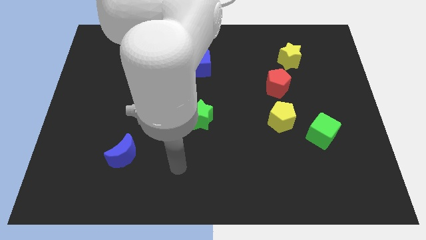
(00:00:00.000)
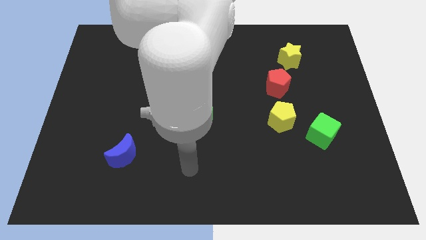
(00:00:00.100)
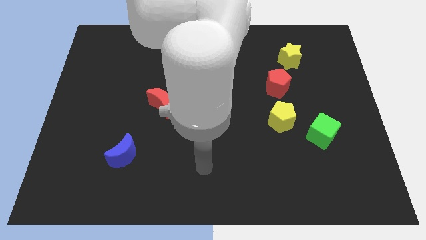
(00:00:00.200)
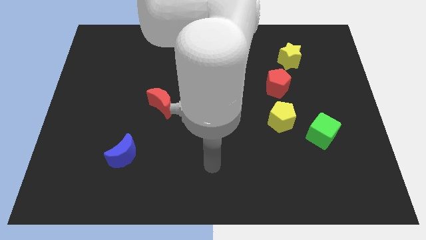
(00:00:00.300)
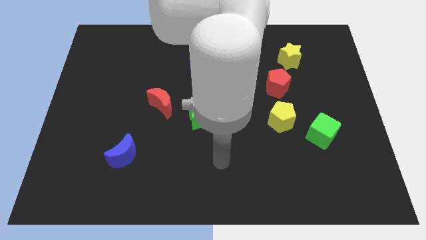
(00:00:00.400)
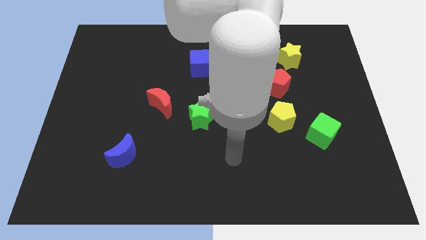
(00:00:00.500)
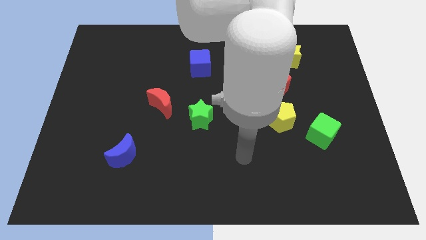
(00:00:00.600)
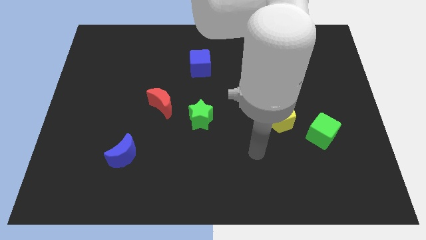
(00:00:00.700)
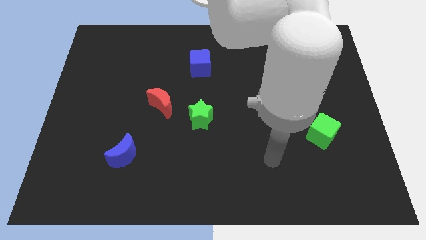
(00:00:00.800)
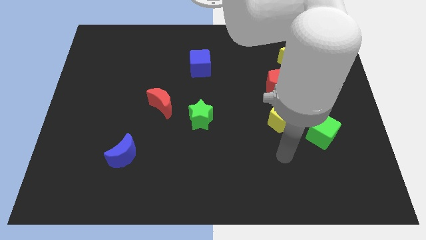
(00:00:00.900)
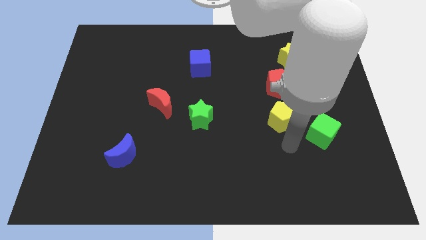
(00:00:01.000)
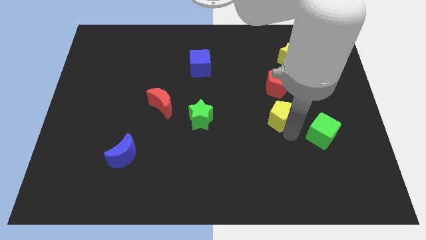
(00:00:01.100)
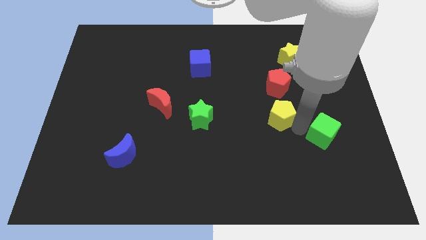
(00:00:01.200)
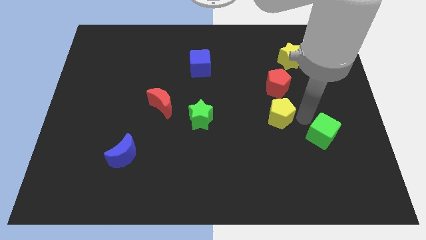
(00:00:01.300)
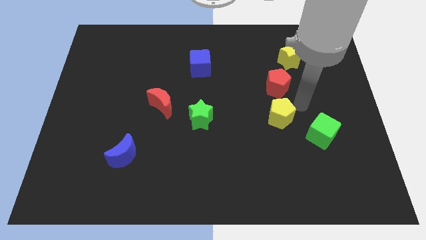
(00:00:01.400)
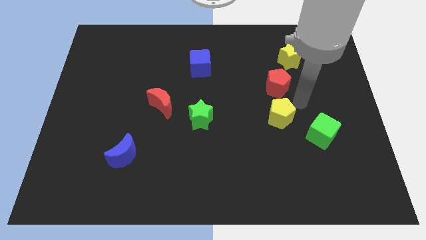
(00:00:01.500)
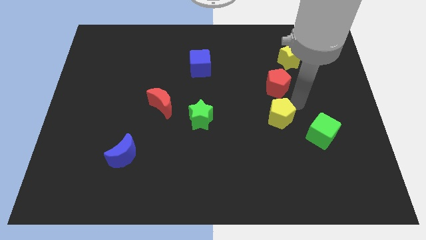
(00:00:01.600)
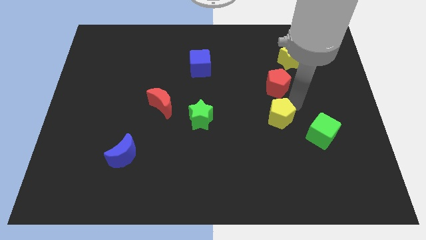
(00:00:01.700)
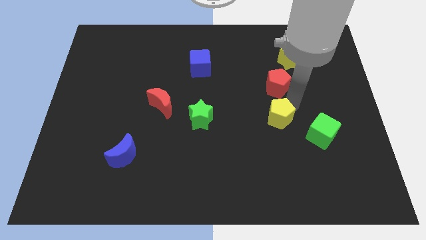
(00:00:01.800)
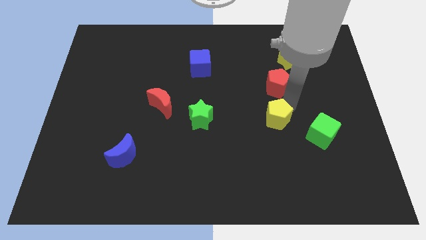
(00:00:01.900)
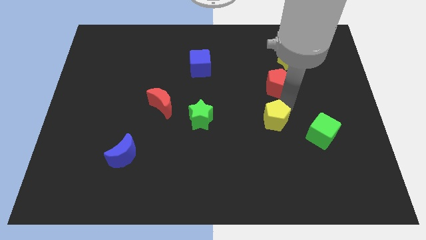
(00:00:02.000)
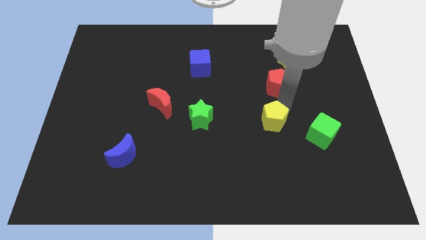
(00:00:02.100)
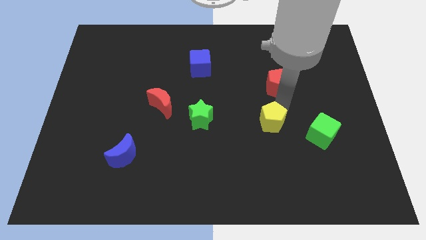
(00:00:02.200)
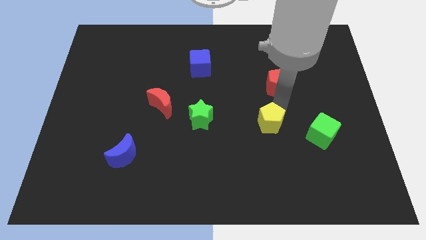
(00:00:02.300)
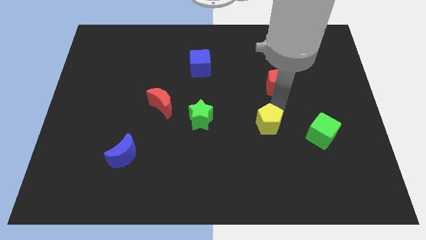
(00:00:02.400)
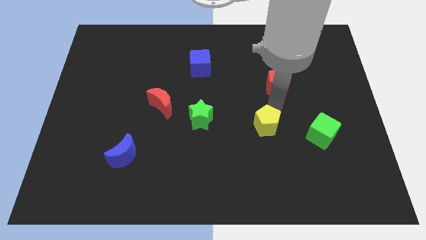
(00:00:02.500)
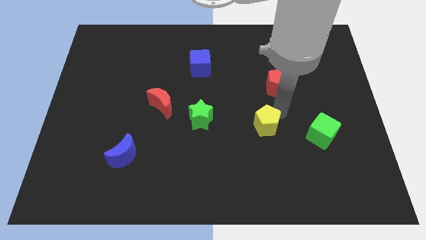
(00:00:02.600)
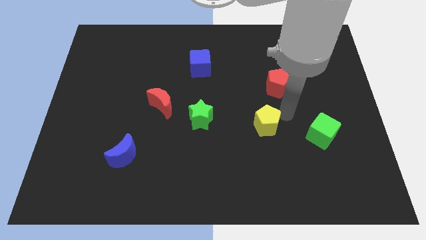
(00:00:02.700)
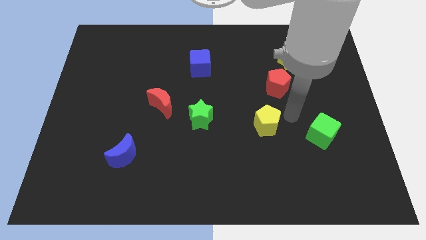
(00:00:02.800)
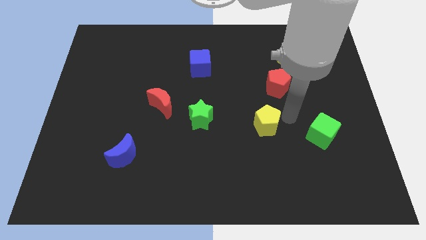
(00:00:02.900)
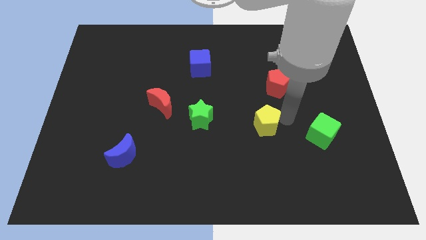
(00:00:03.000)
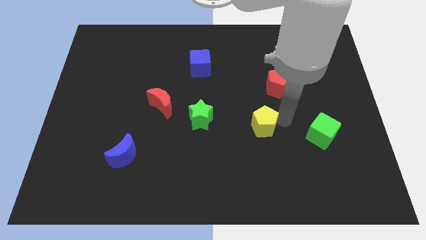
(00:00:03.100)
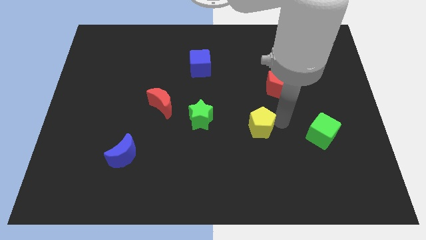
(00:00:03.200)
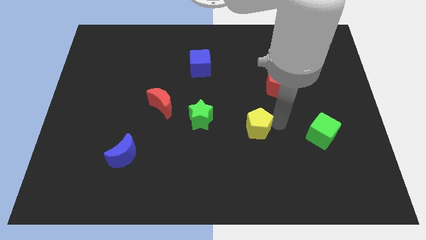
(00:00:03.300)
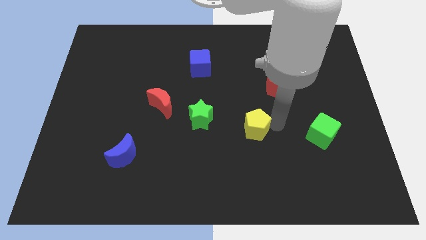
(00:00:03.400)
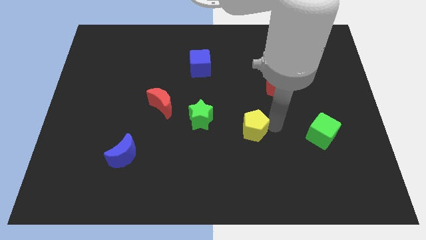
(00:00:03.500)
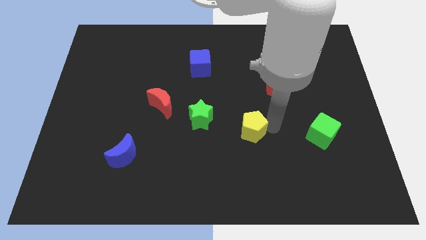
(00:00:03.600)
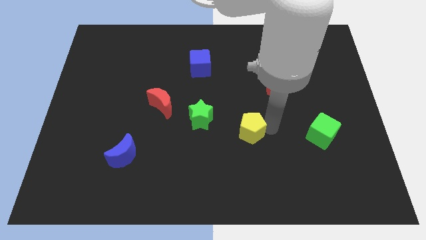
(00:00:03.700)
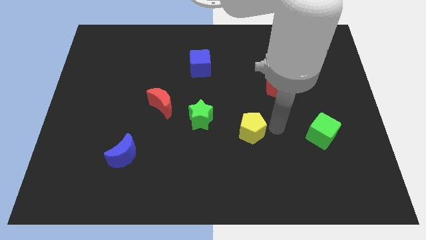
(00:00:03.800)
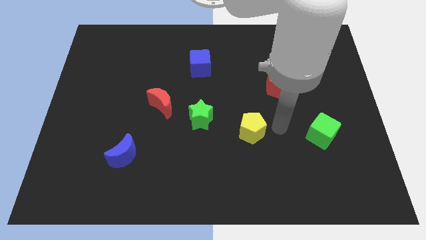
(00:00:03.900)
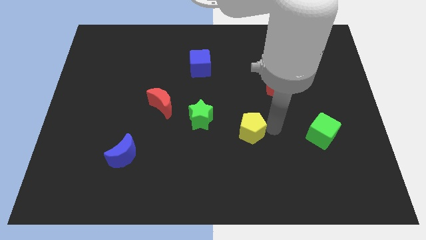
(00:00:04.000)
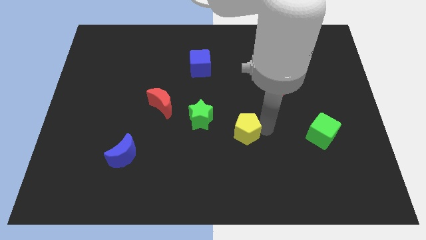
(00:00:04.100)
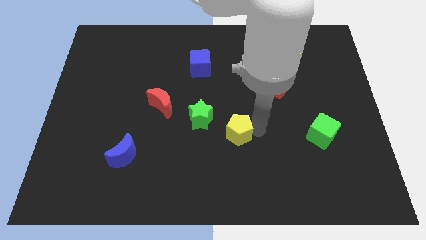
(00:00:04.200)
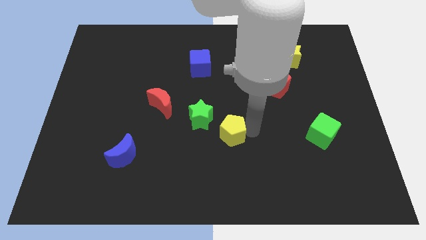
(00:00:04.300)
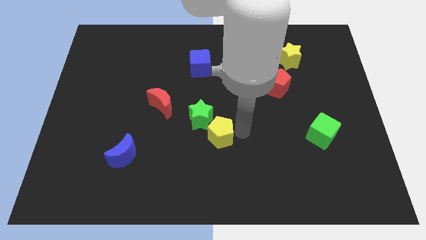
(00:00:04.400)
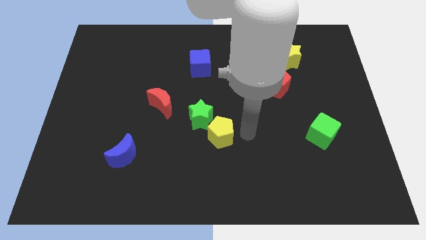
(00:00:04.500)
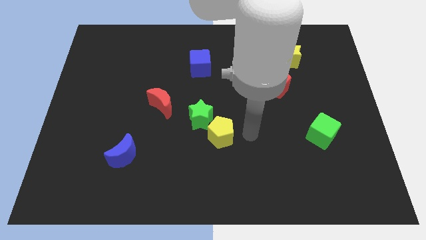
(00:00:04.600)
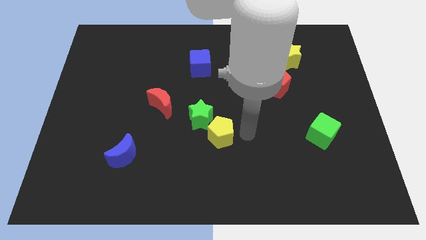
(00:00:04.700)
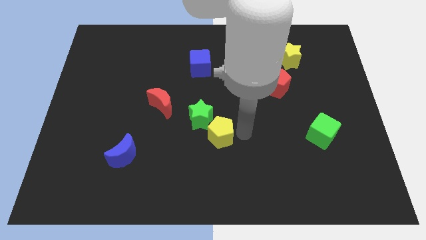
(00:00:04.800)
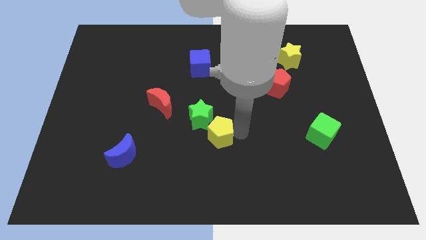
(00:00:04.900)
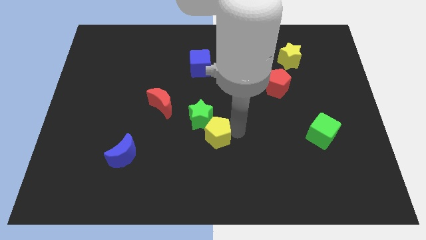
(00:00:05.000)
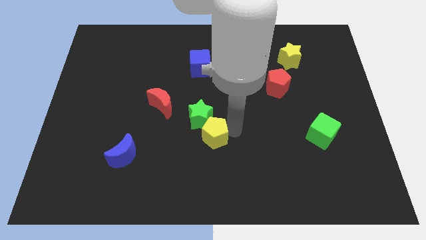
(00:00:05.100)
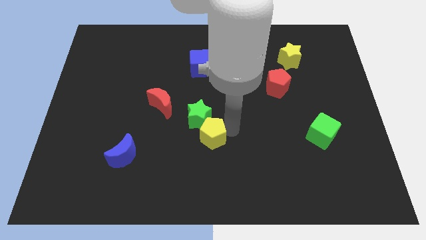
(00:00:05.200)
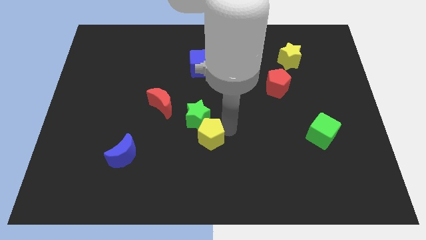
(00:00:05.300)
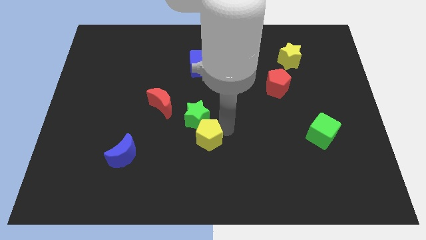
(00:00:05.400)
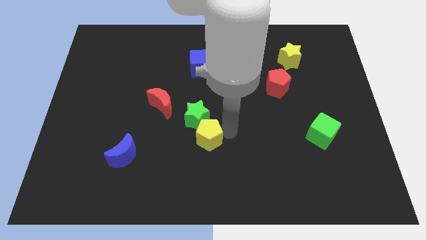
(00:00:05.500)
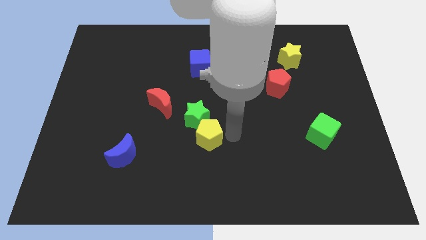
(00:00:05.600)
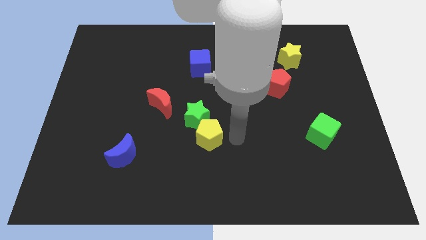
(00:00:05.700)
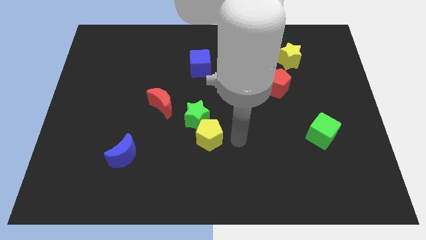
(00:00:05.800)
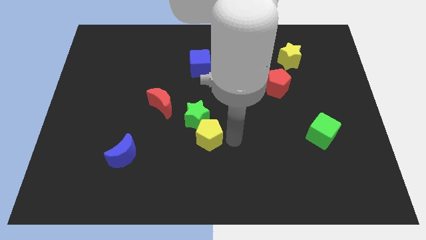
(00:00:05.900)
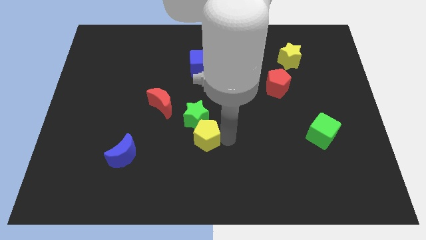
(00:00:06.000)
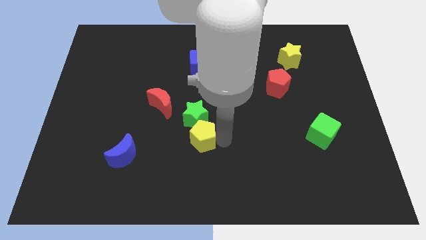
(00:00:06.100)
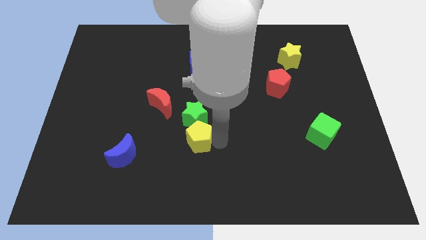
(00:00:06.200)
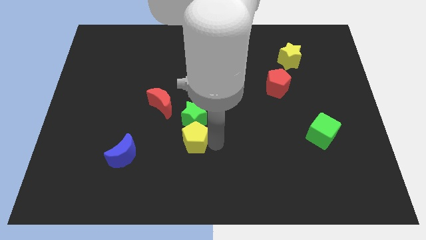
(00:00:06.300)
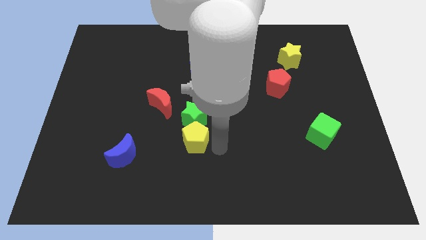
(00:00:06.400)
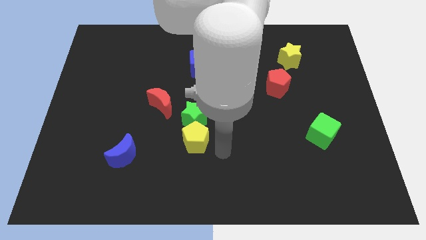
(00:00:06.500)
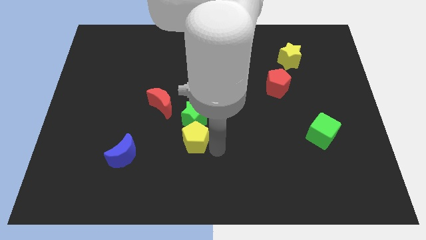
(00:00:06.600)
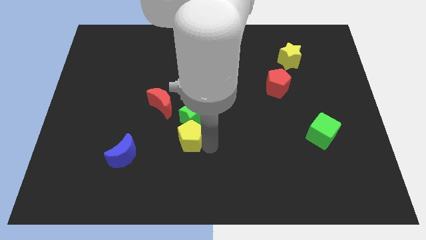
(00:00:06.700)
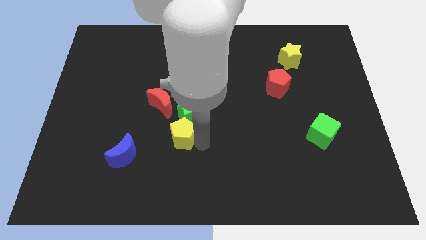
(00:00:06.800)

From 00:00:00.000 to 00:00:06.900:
push the yellow pentagon left

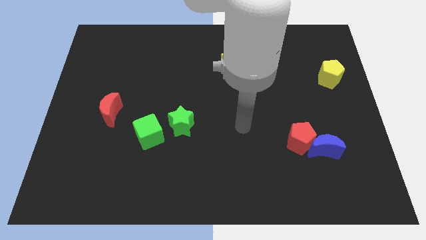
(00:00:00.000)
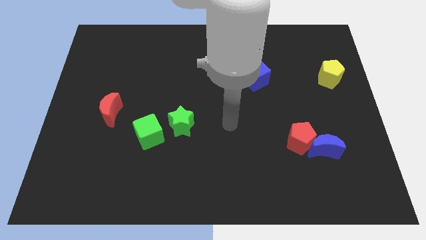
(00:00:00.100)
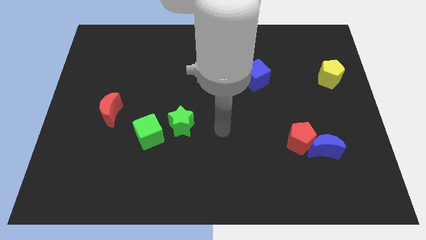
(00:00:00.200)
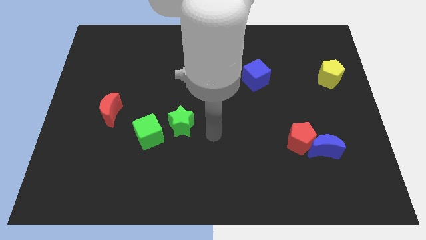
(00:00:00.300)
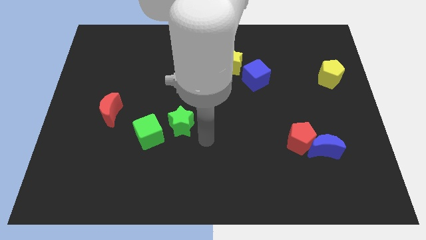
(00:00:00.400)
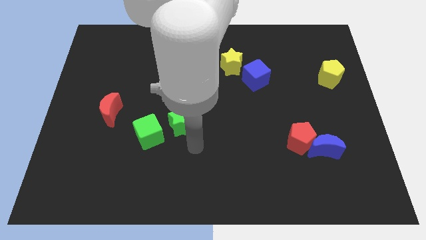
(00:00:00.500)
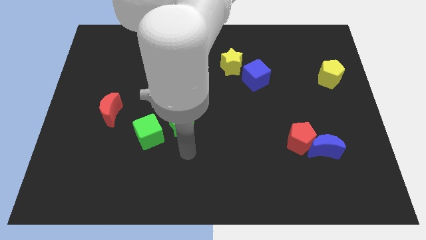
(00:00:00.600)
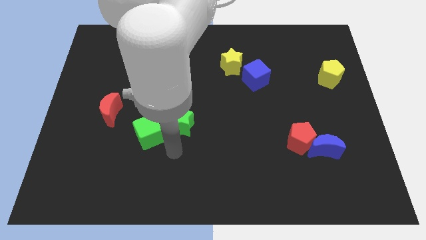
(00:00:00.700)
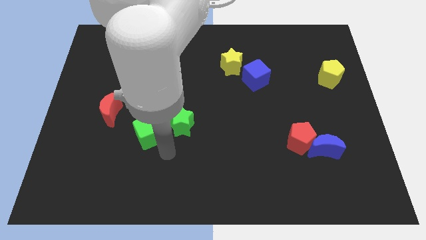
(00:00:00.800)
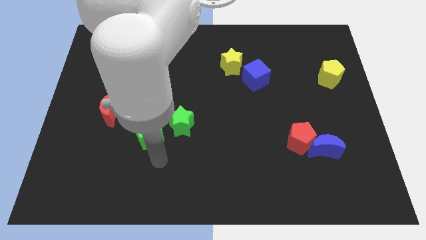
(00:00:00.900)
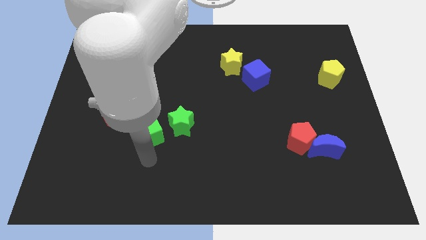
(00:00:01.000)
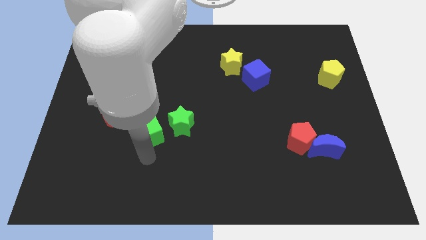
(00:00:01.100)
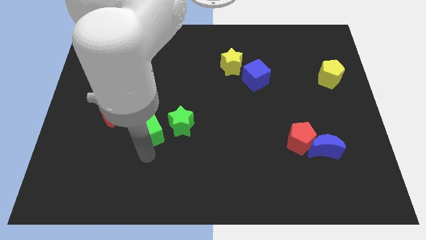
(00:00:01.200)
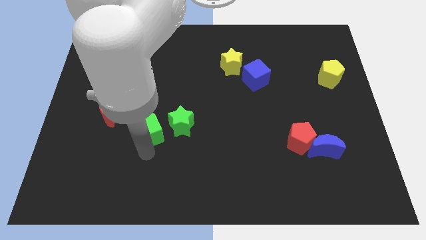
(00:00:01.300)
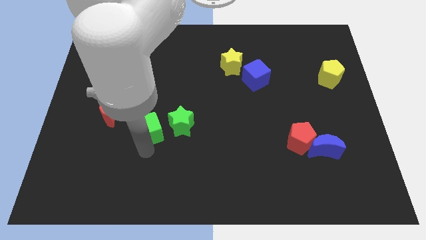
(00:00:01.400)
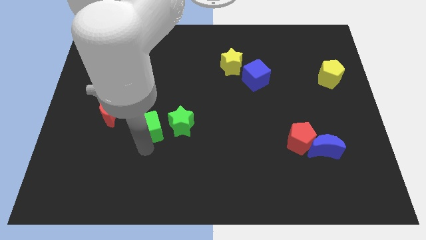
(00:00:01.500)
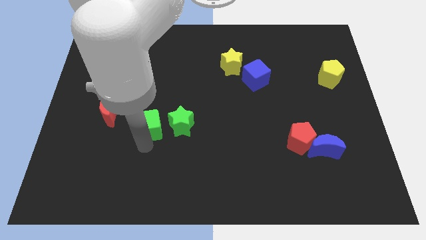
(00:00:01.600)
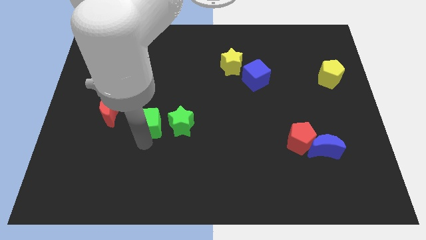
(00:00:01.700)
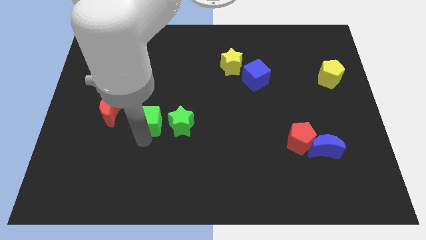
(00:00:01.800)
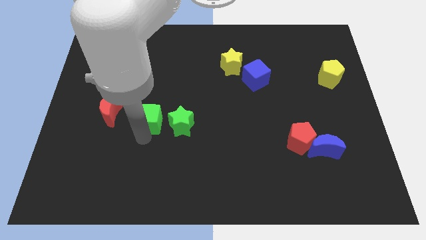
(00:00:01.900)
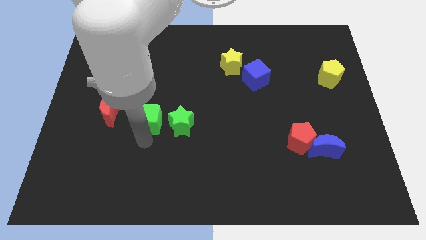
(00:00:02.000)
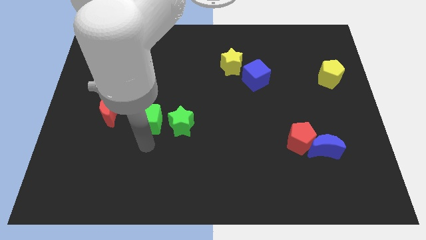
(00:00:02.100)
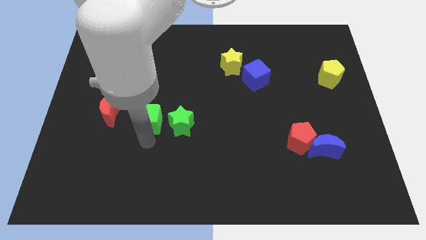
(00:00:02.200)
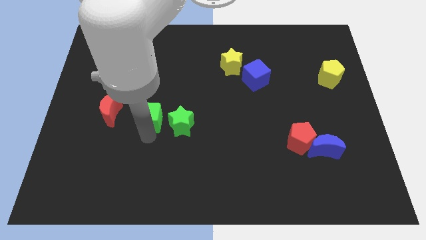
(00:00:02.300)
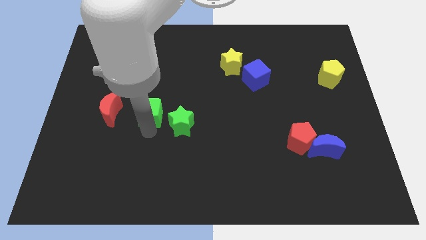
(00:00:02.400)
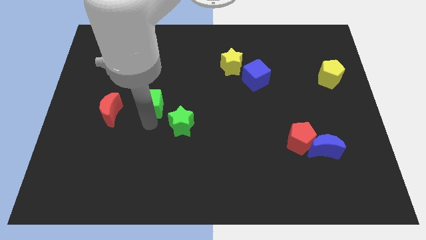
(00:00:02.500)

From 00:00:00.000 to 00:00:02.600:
move the green cube upwards slightly
